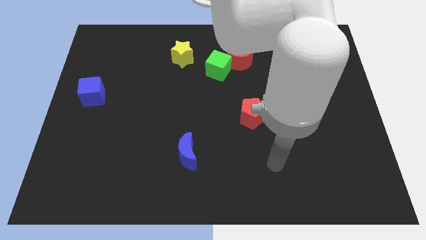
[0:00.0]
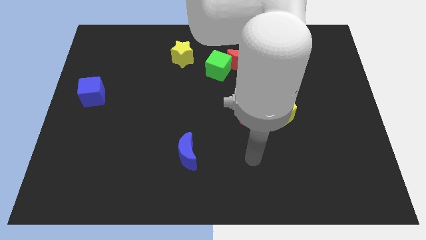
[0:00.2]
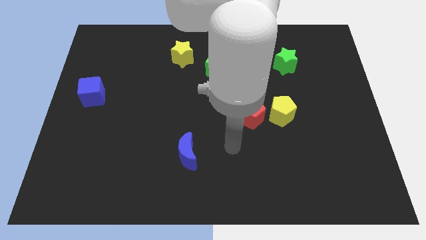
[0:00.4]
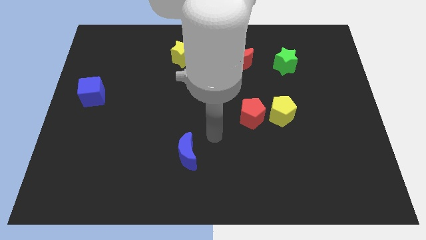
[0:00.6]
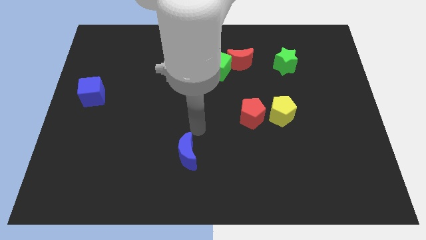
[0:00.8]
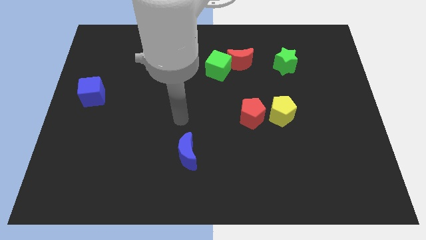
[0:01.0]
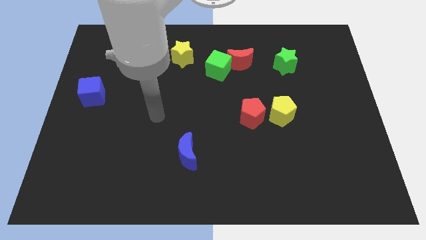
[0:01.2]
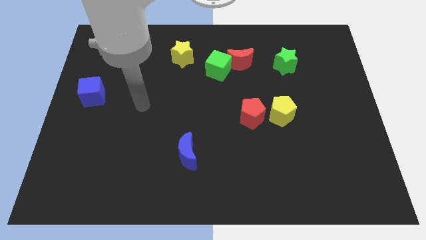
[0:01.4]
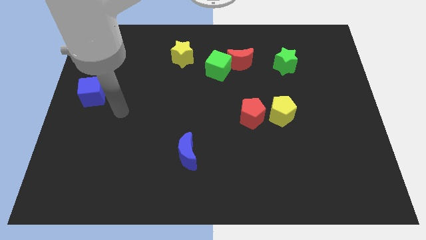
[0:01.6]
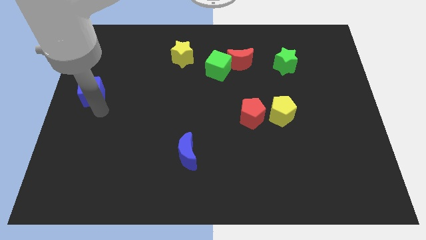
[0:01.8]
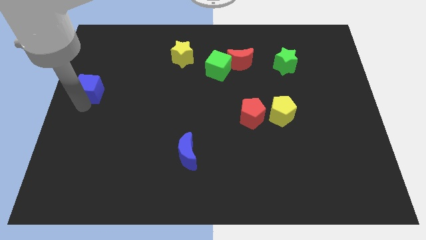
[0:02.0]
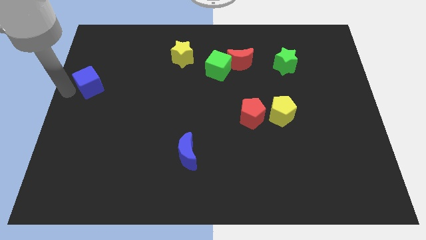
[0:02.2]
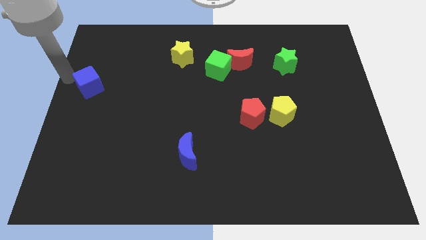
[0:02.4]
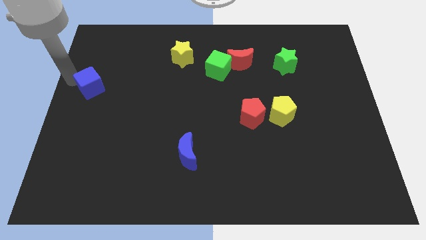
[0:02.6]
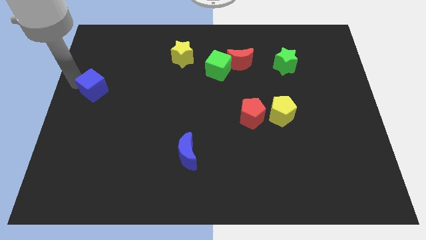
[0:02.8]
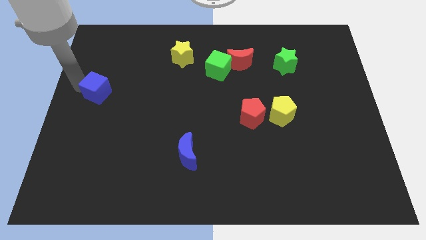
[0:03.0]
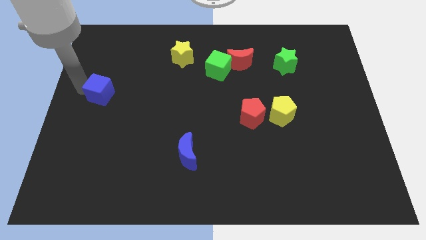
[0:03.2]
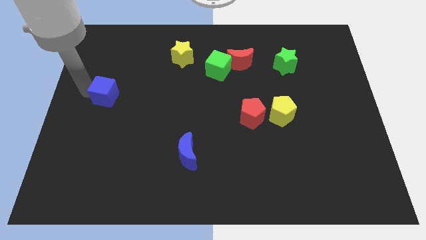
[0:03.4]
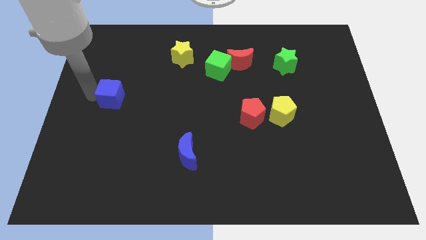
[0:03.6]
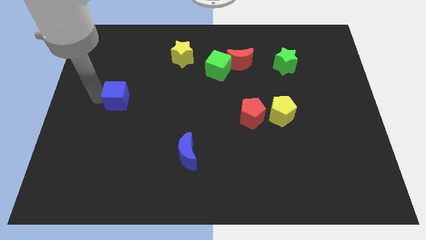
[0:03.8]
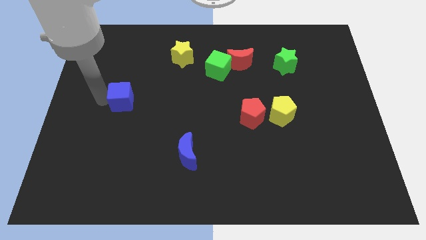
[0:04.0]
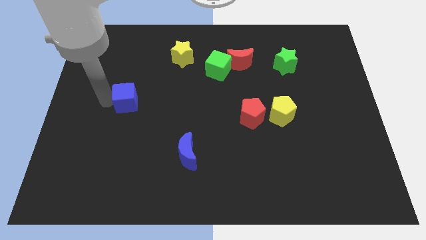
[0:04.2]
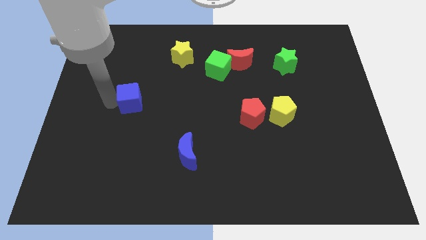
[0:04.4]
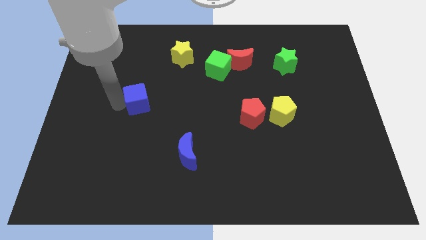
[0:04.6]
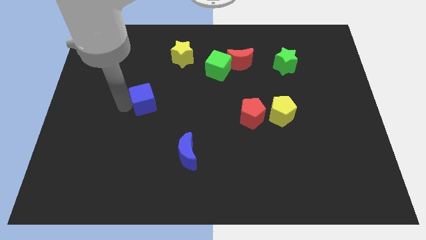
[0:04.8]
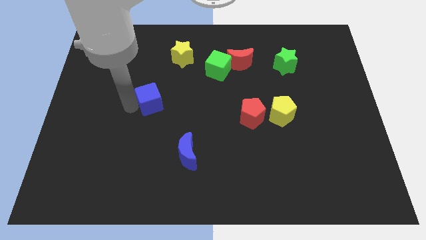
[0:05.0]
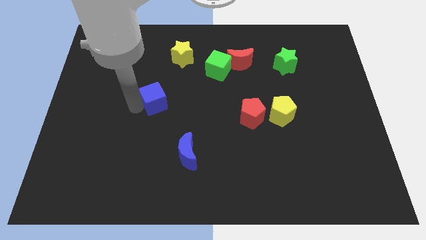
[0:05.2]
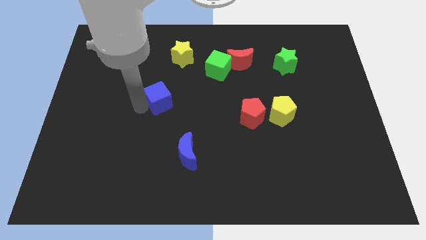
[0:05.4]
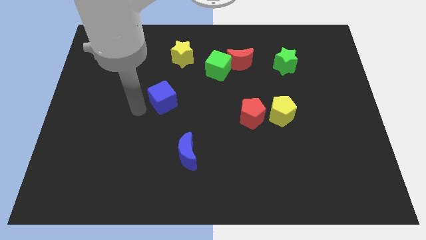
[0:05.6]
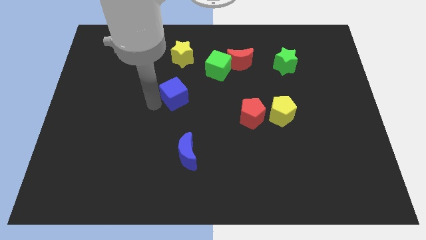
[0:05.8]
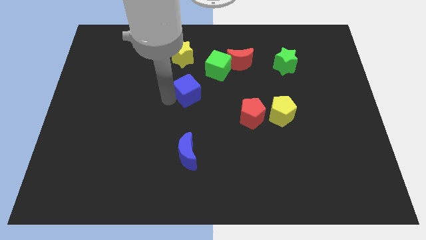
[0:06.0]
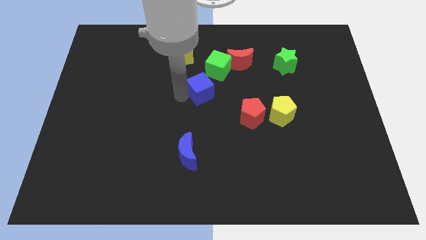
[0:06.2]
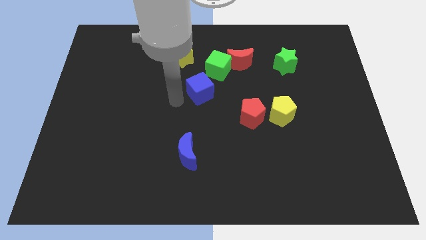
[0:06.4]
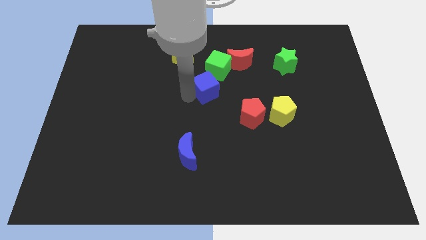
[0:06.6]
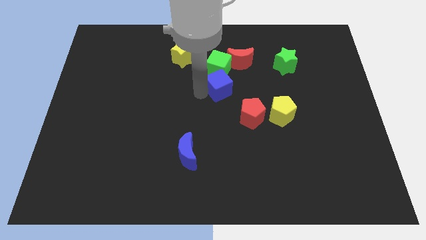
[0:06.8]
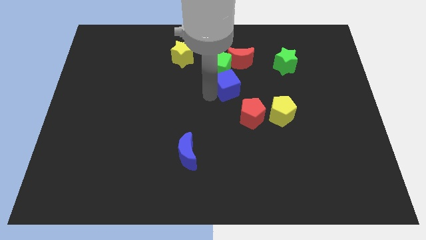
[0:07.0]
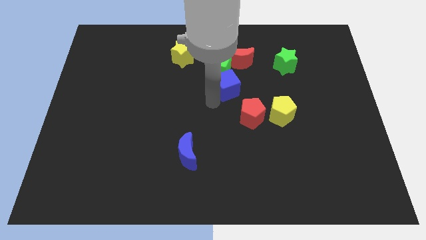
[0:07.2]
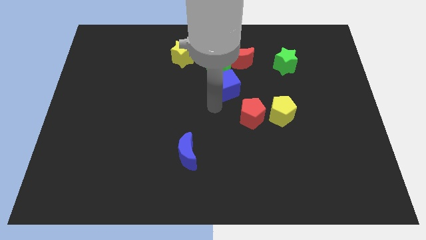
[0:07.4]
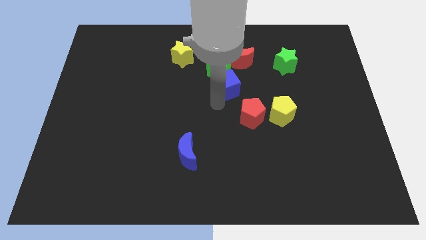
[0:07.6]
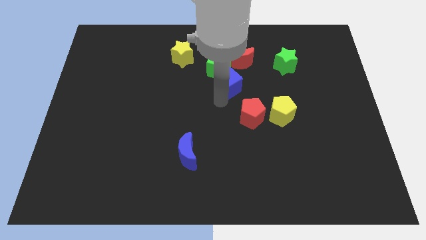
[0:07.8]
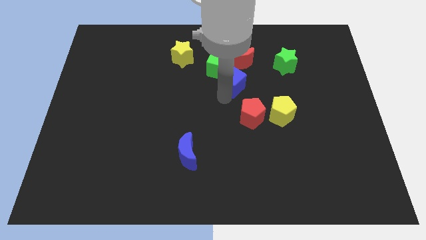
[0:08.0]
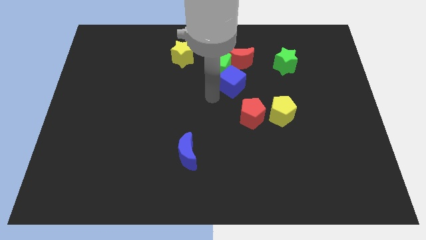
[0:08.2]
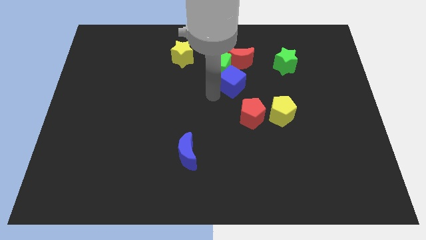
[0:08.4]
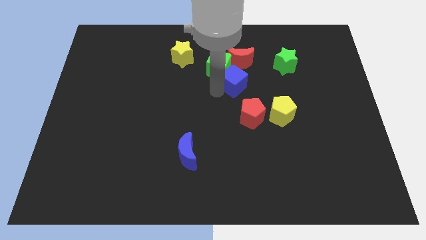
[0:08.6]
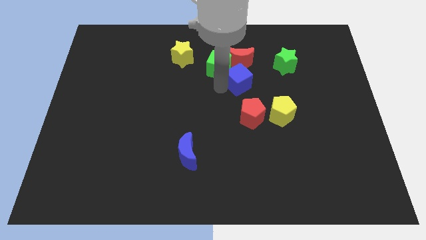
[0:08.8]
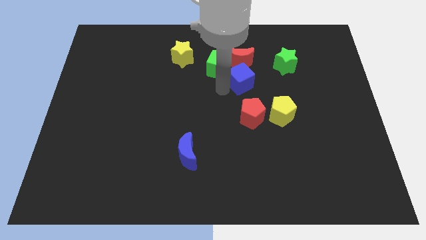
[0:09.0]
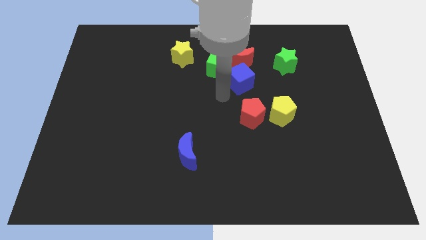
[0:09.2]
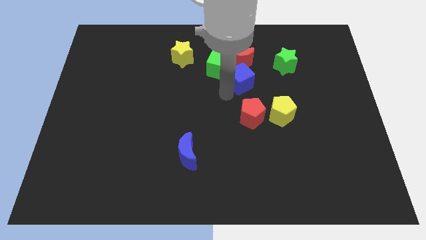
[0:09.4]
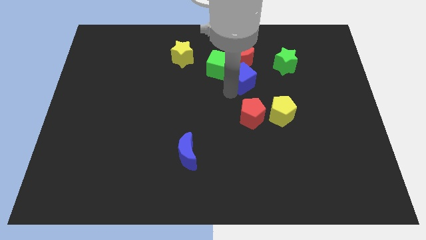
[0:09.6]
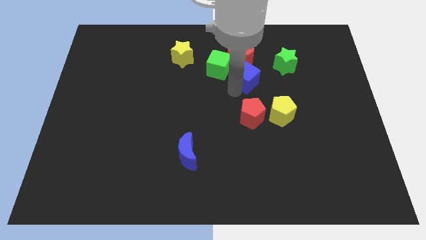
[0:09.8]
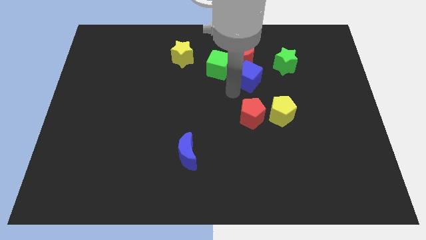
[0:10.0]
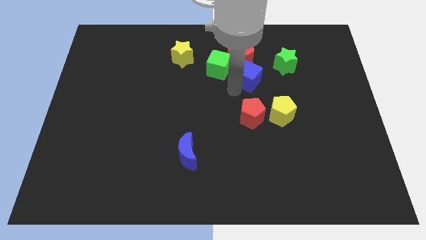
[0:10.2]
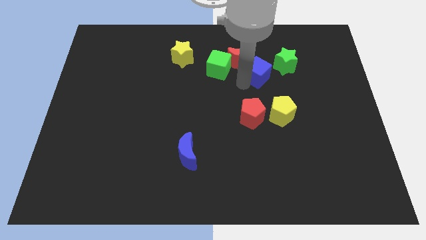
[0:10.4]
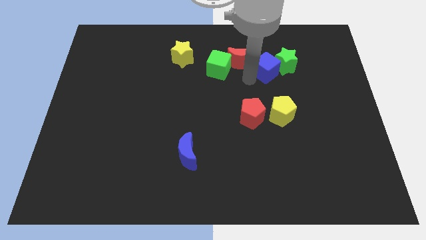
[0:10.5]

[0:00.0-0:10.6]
put the blue cube towards the green star

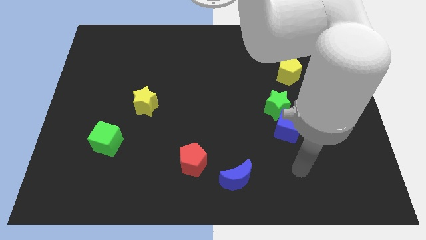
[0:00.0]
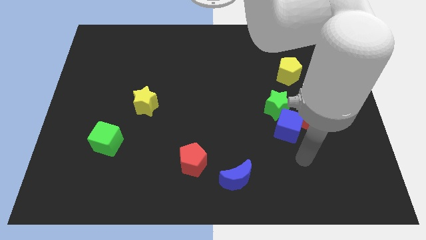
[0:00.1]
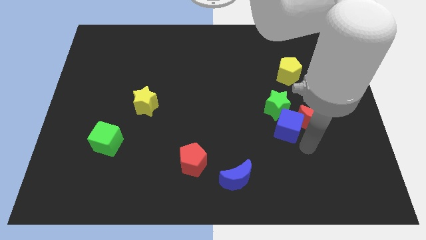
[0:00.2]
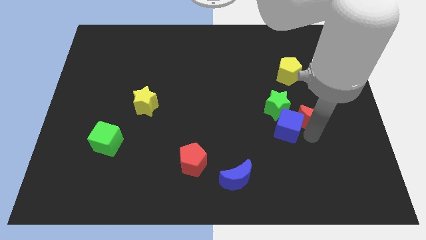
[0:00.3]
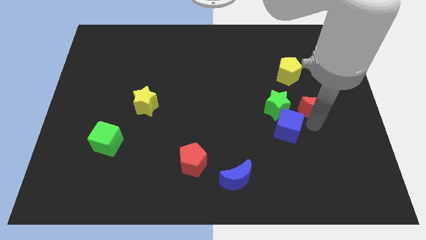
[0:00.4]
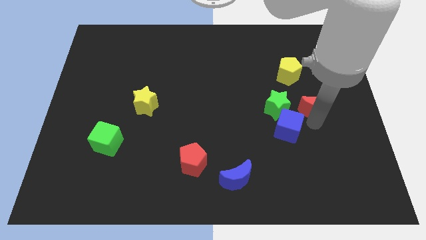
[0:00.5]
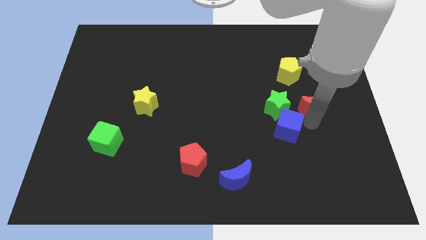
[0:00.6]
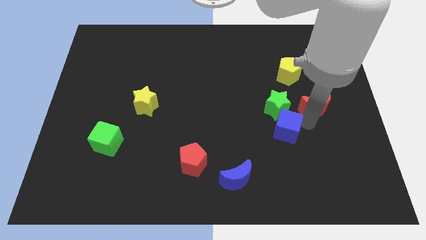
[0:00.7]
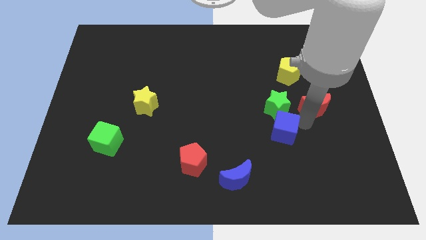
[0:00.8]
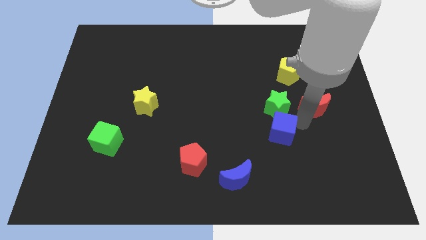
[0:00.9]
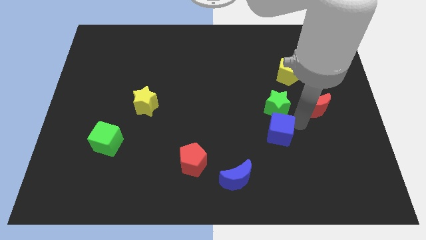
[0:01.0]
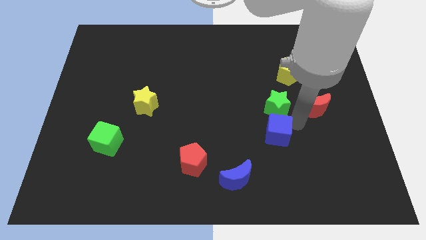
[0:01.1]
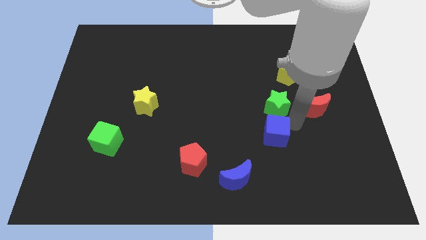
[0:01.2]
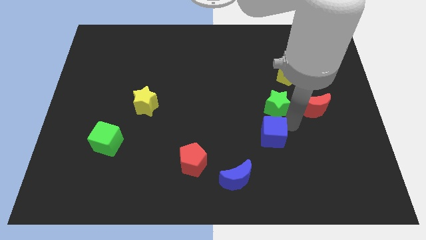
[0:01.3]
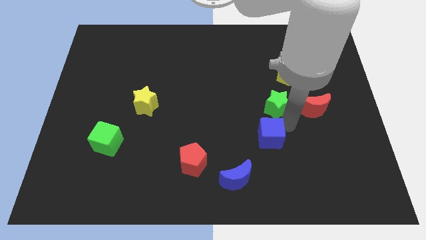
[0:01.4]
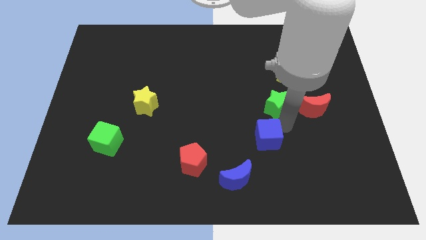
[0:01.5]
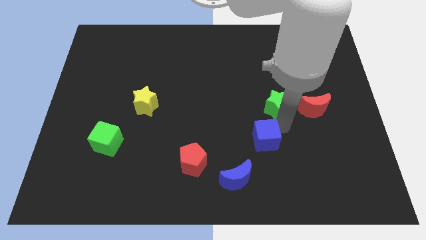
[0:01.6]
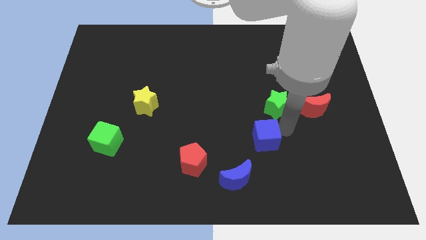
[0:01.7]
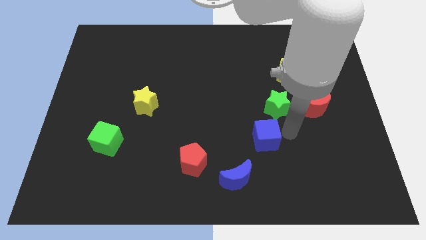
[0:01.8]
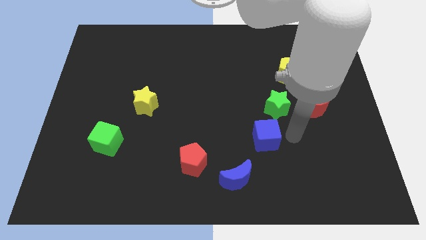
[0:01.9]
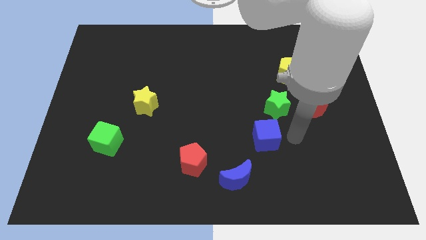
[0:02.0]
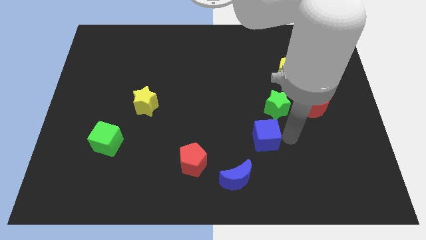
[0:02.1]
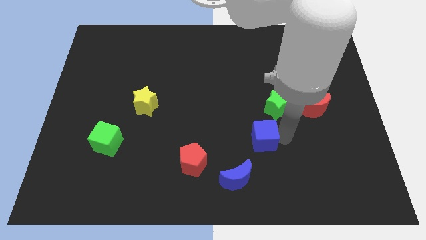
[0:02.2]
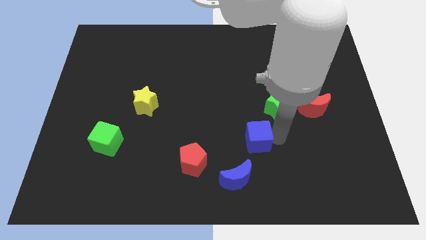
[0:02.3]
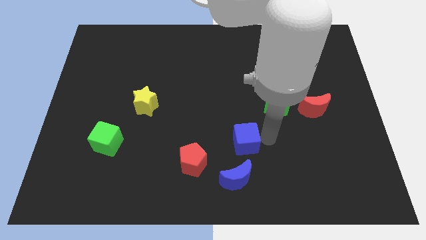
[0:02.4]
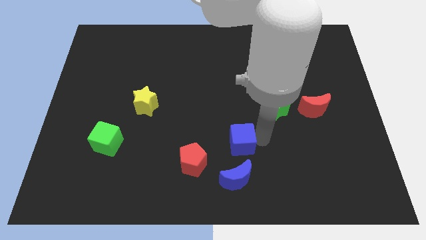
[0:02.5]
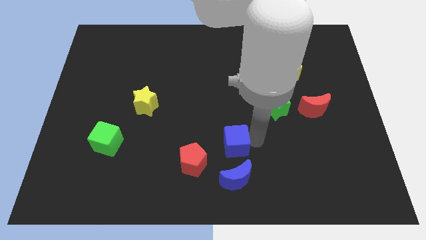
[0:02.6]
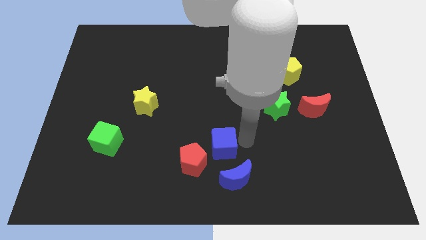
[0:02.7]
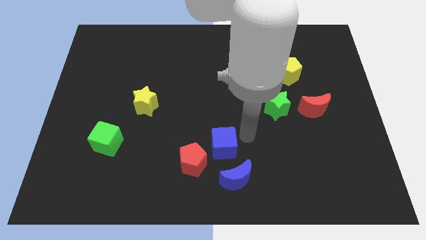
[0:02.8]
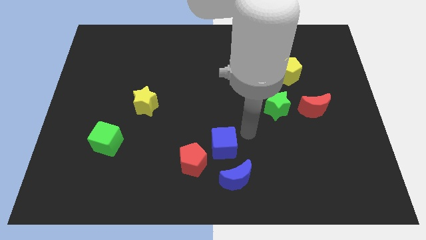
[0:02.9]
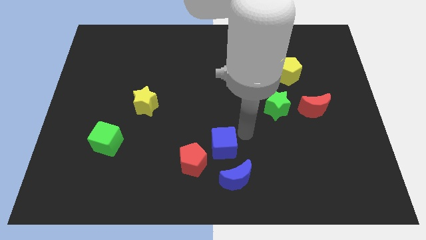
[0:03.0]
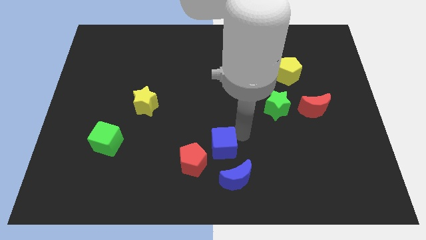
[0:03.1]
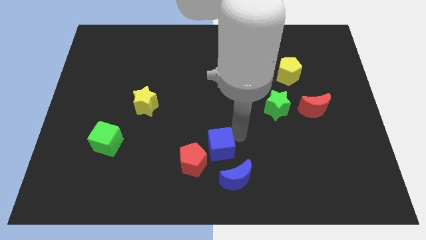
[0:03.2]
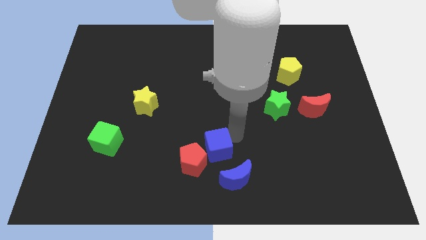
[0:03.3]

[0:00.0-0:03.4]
push the blue cube to the red pentagon
